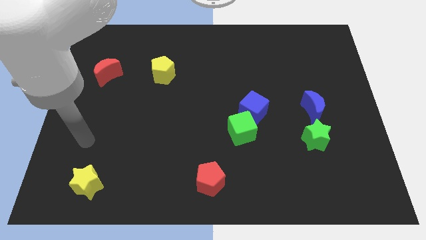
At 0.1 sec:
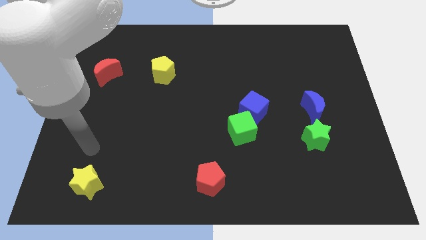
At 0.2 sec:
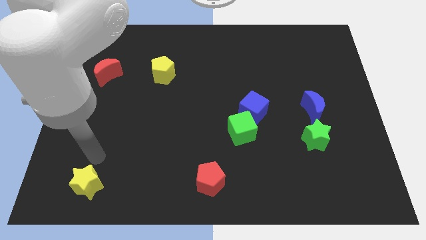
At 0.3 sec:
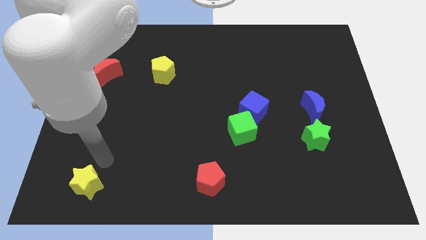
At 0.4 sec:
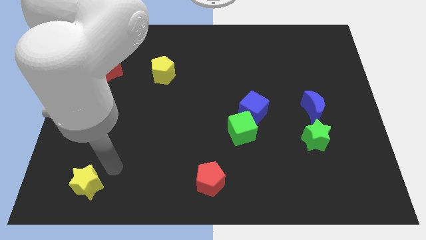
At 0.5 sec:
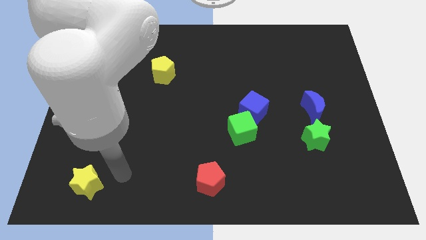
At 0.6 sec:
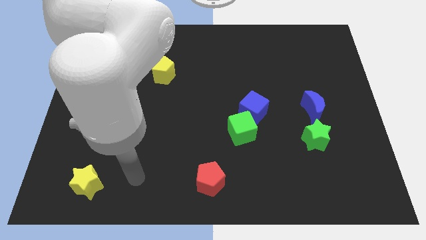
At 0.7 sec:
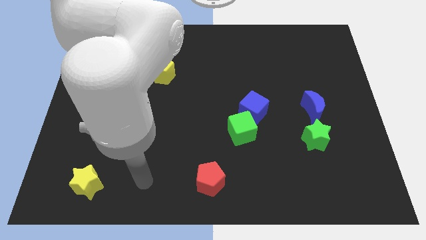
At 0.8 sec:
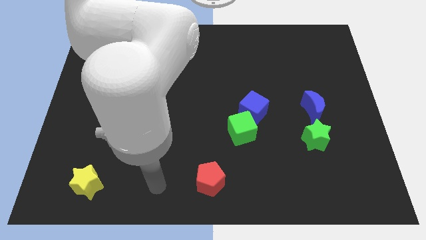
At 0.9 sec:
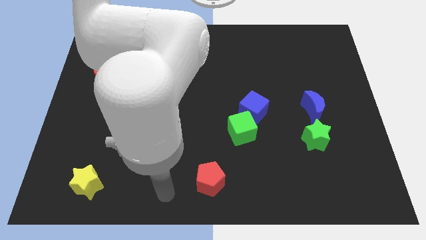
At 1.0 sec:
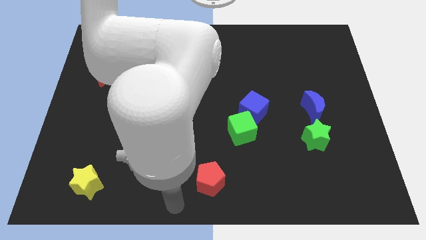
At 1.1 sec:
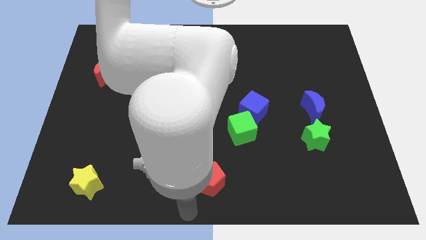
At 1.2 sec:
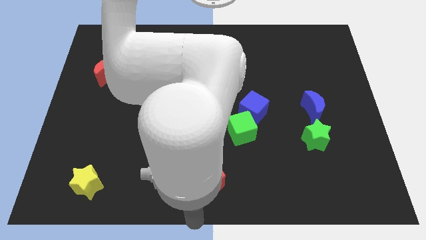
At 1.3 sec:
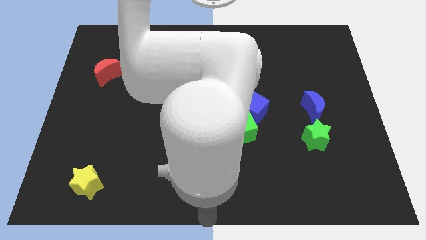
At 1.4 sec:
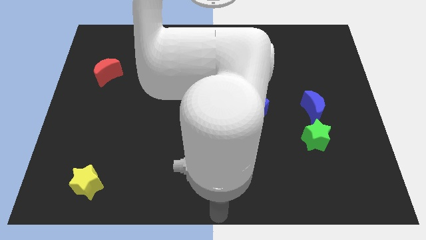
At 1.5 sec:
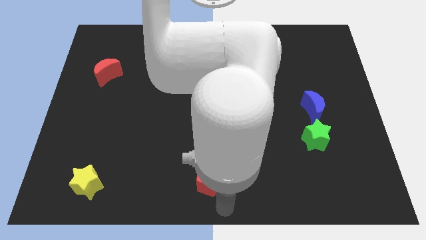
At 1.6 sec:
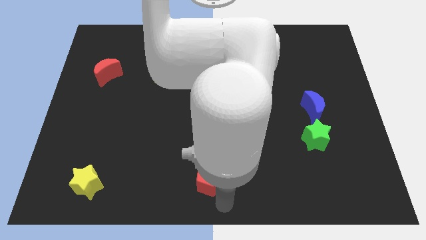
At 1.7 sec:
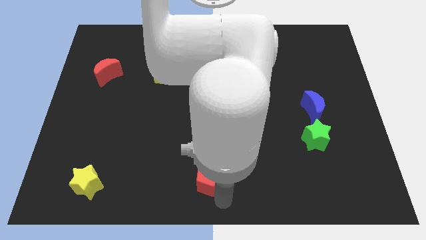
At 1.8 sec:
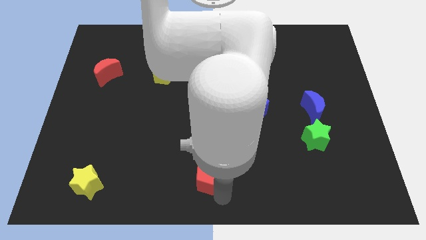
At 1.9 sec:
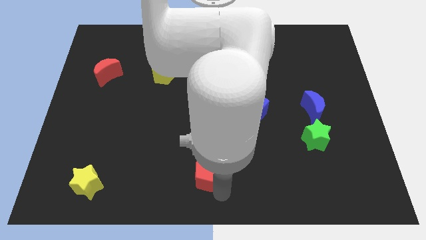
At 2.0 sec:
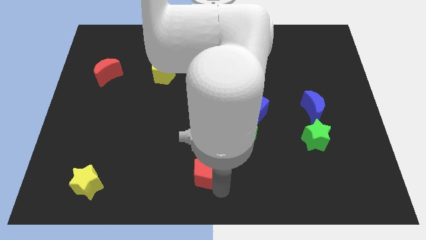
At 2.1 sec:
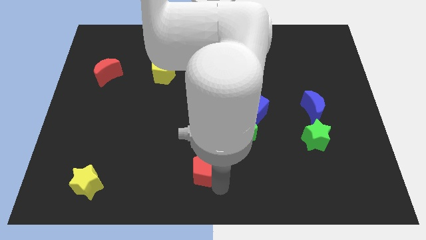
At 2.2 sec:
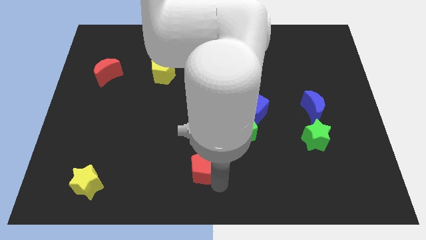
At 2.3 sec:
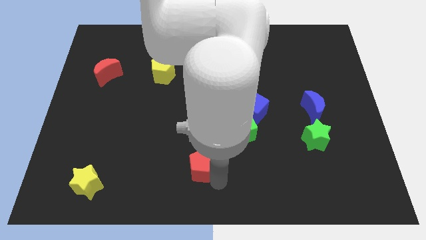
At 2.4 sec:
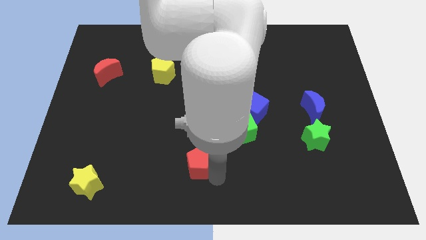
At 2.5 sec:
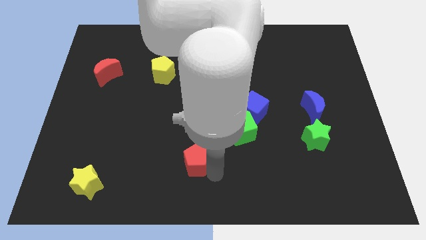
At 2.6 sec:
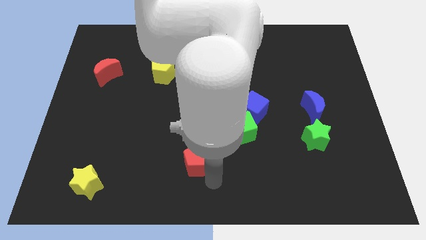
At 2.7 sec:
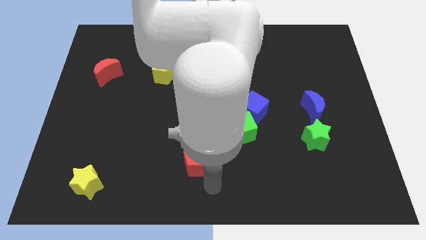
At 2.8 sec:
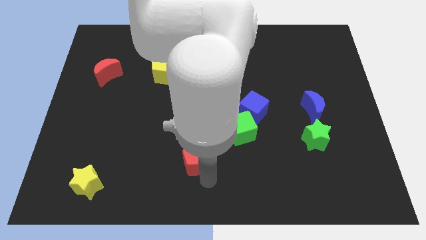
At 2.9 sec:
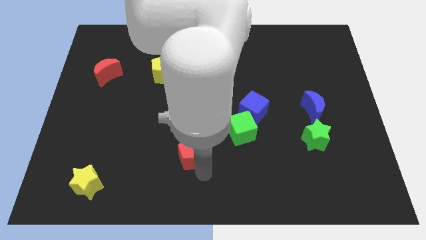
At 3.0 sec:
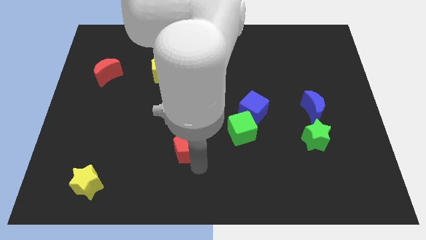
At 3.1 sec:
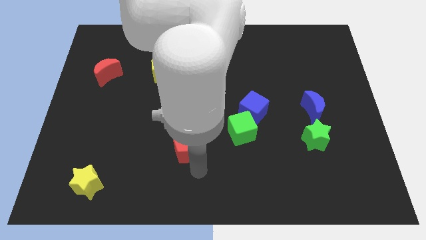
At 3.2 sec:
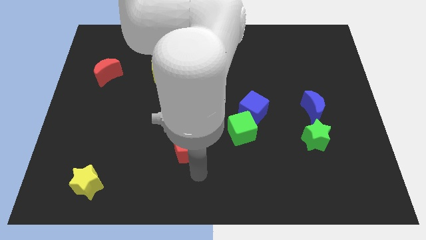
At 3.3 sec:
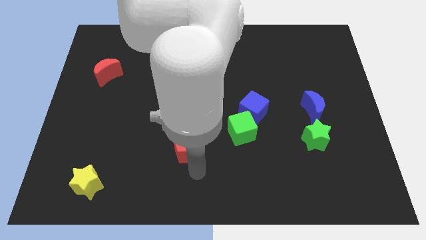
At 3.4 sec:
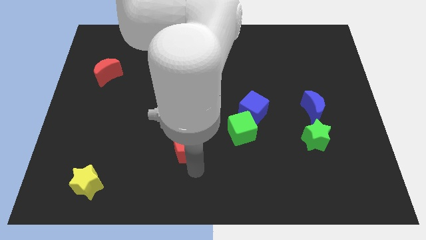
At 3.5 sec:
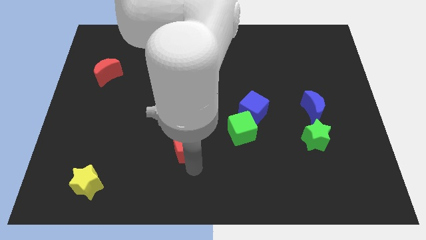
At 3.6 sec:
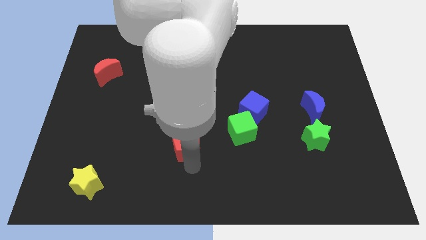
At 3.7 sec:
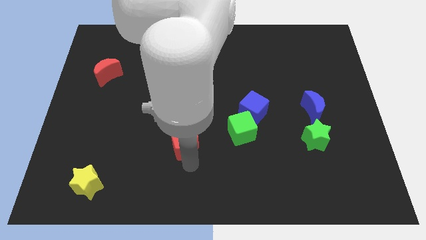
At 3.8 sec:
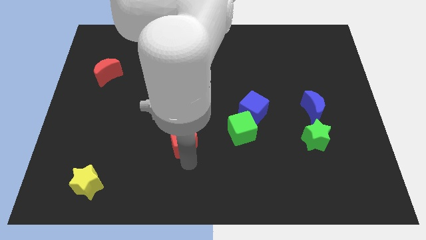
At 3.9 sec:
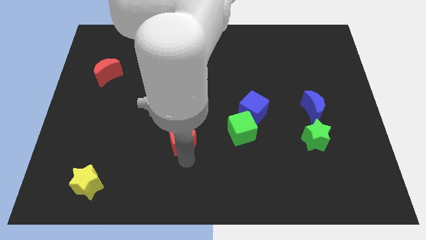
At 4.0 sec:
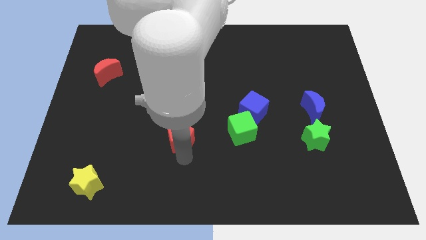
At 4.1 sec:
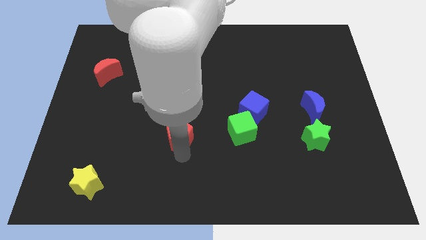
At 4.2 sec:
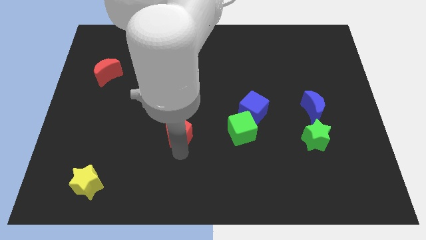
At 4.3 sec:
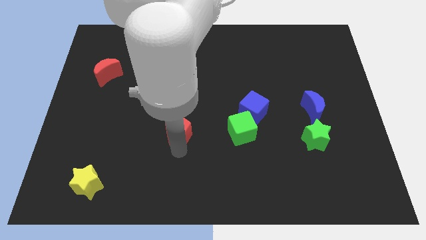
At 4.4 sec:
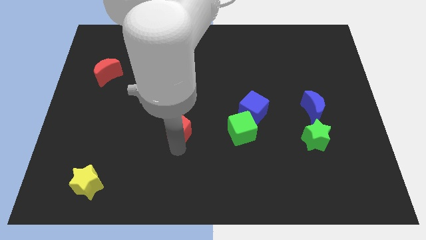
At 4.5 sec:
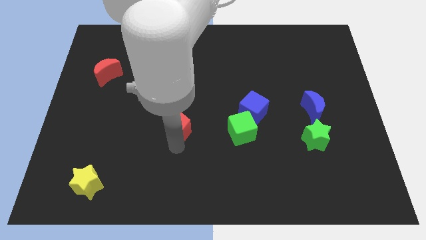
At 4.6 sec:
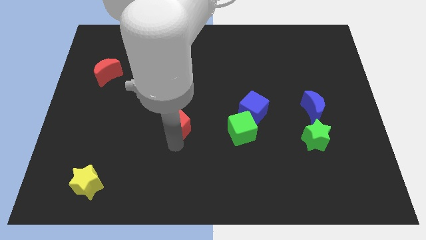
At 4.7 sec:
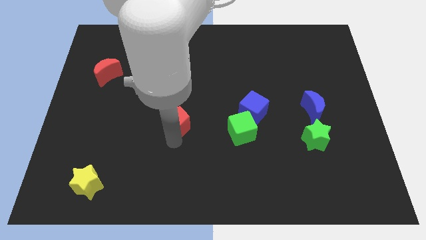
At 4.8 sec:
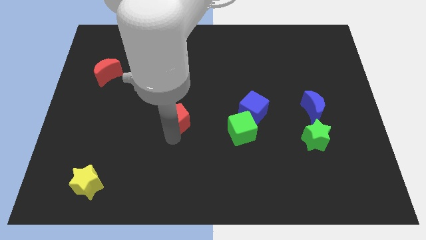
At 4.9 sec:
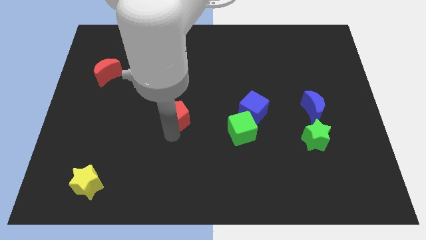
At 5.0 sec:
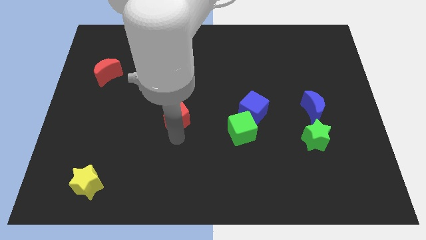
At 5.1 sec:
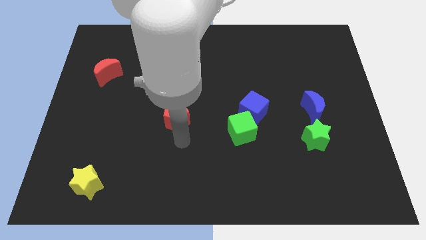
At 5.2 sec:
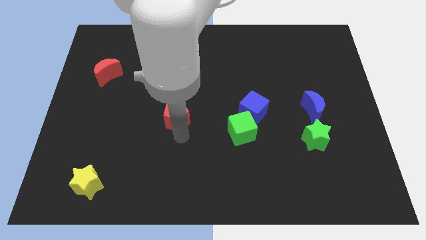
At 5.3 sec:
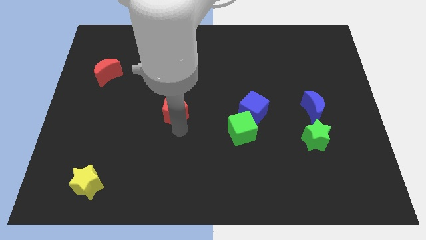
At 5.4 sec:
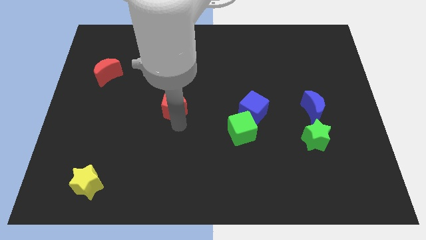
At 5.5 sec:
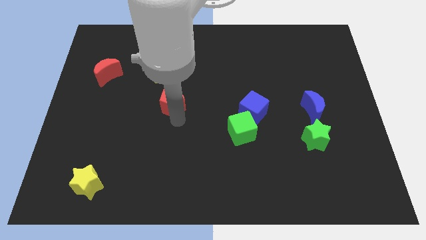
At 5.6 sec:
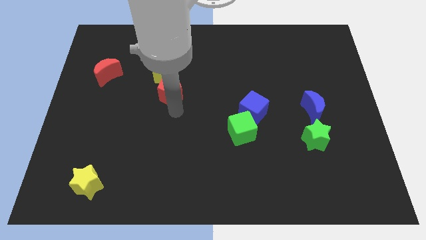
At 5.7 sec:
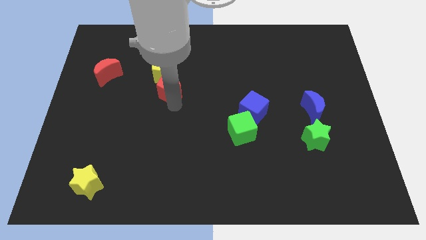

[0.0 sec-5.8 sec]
put the red pentagon to the yellow pentagon

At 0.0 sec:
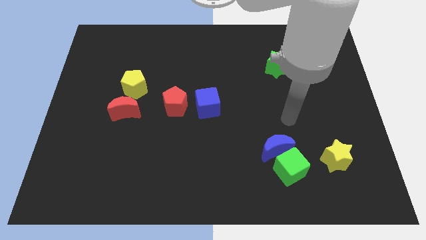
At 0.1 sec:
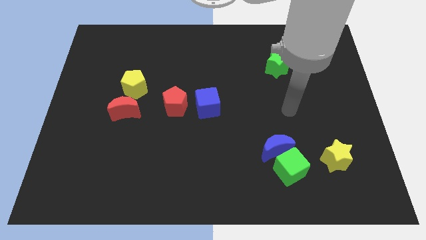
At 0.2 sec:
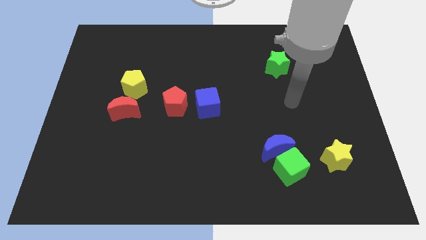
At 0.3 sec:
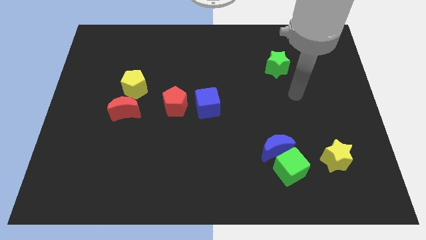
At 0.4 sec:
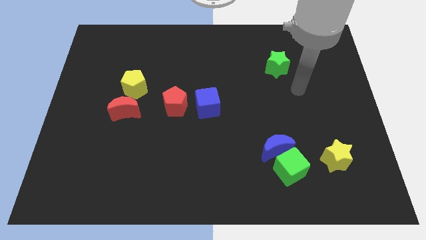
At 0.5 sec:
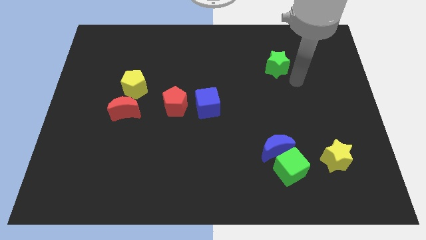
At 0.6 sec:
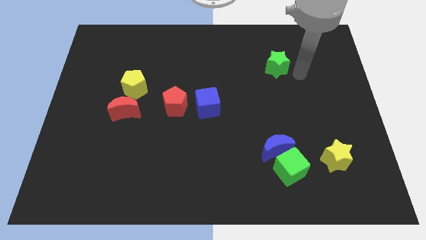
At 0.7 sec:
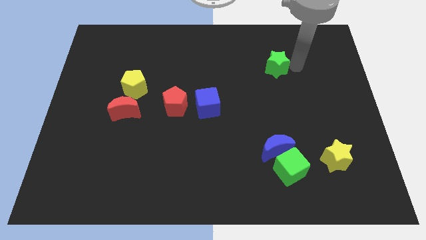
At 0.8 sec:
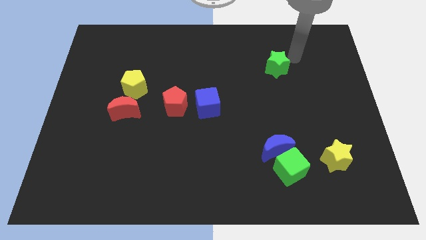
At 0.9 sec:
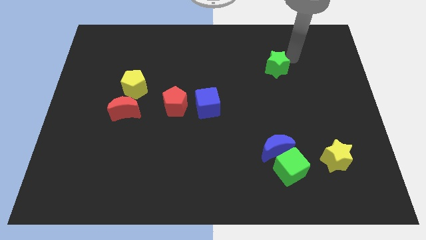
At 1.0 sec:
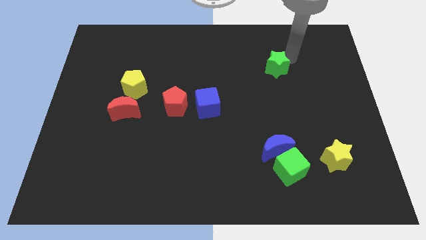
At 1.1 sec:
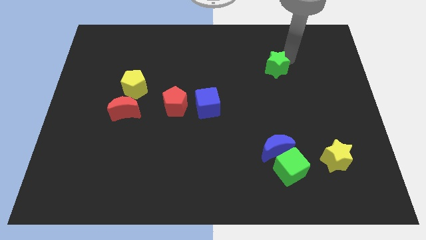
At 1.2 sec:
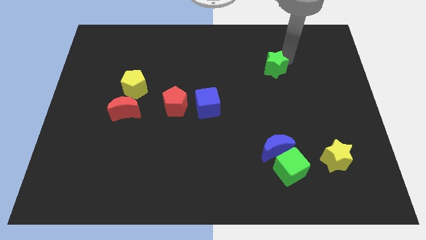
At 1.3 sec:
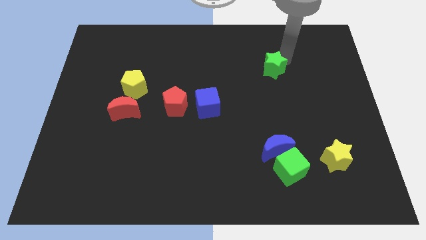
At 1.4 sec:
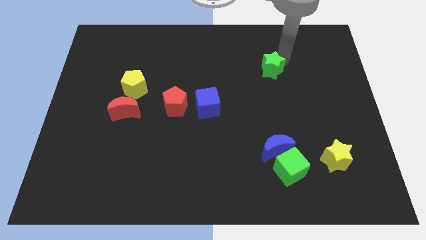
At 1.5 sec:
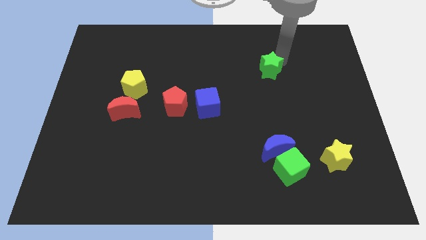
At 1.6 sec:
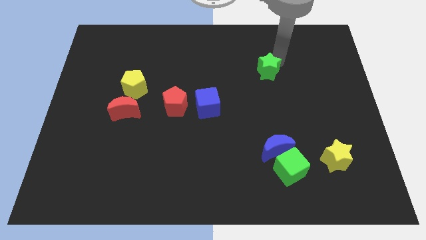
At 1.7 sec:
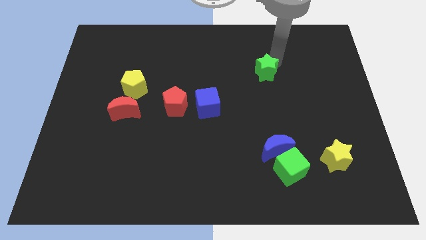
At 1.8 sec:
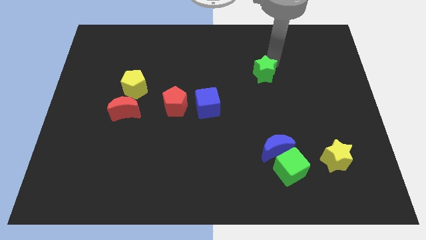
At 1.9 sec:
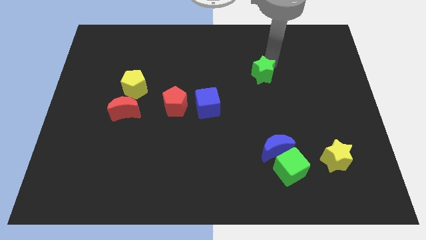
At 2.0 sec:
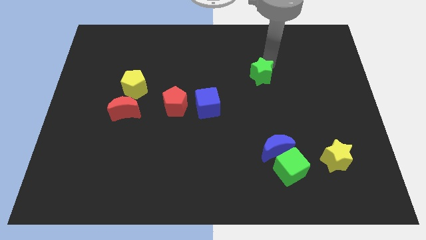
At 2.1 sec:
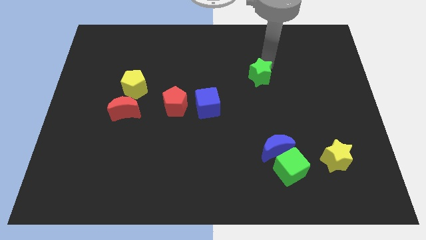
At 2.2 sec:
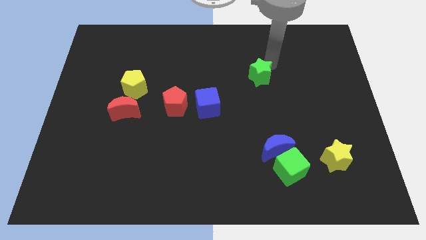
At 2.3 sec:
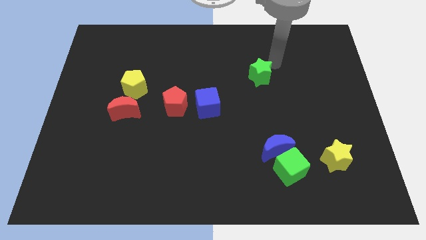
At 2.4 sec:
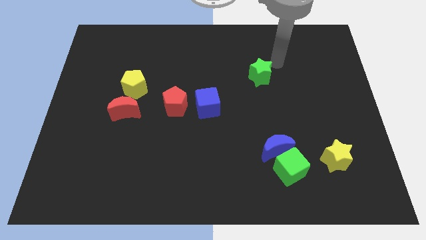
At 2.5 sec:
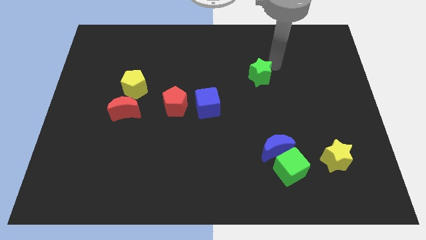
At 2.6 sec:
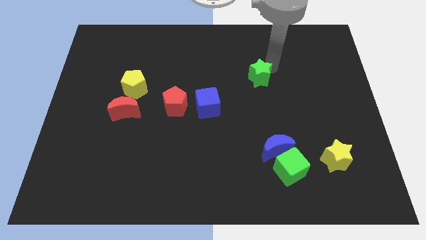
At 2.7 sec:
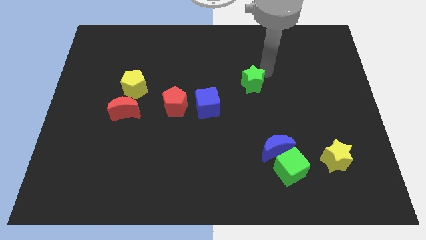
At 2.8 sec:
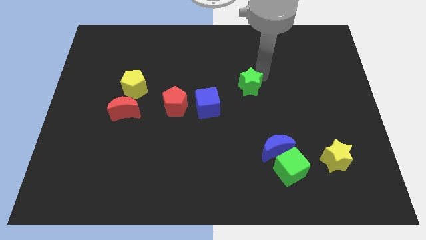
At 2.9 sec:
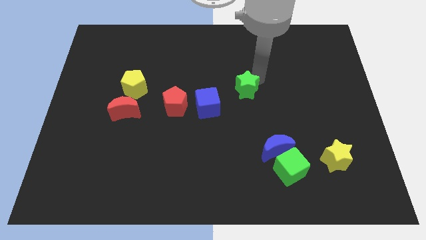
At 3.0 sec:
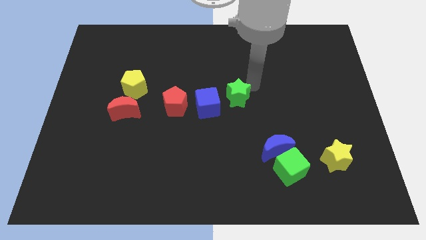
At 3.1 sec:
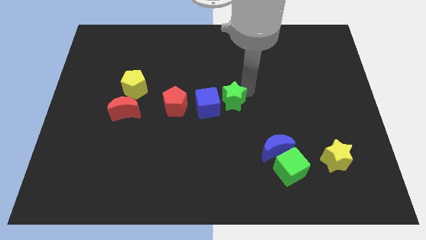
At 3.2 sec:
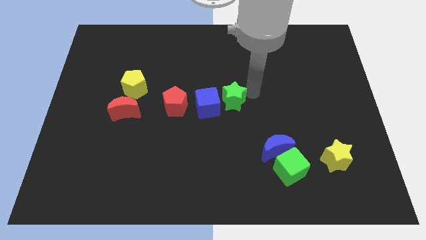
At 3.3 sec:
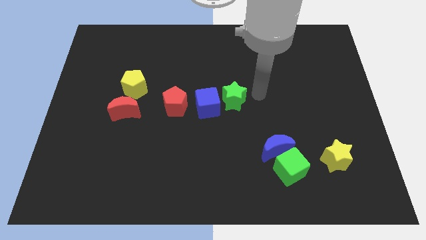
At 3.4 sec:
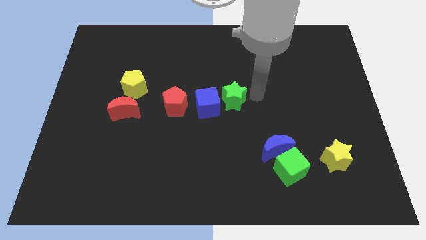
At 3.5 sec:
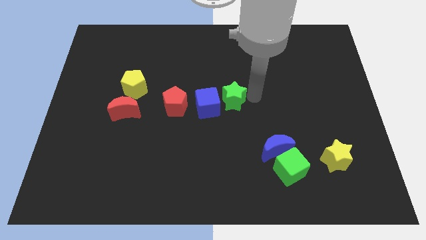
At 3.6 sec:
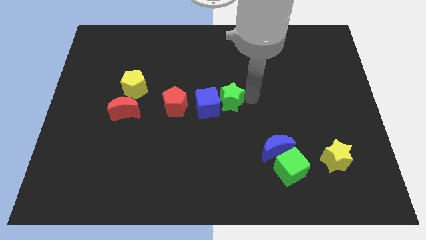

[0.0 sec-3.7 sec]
move the green star next to the blue cube
